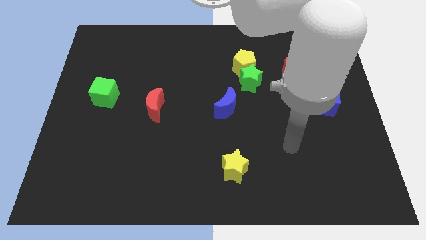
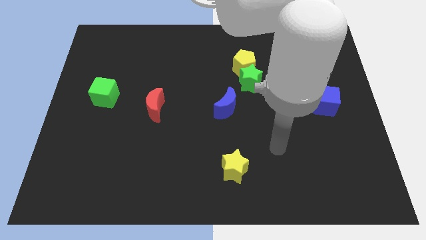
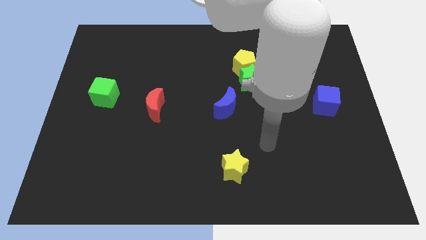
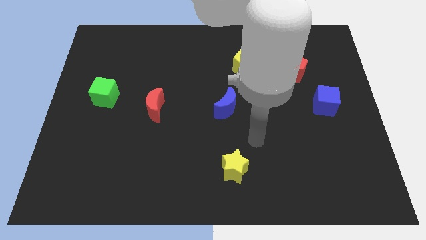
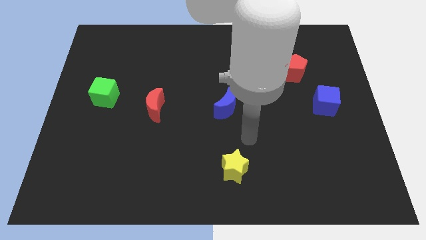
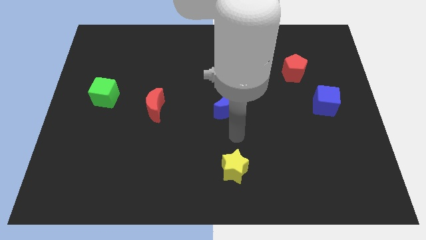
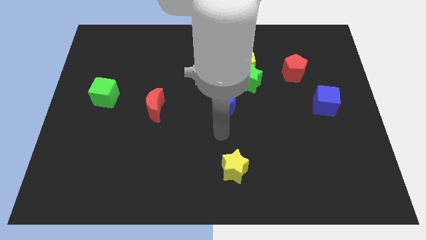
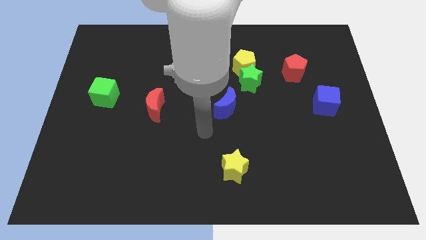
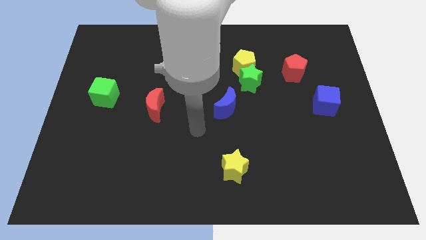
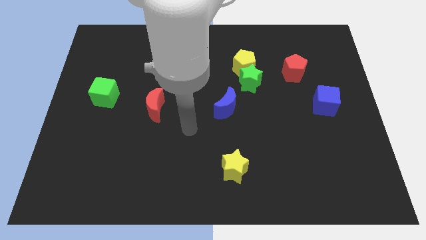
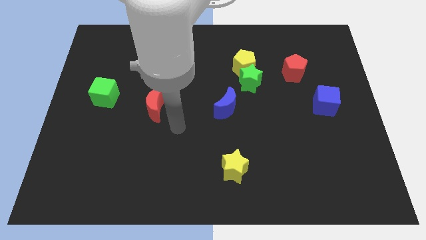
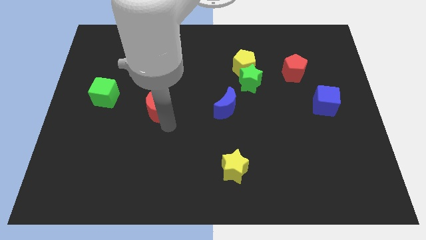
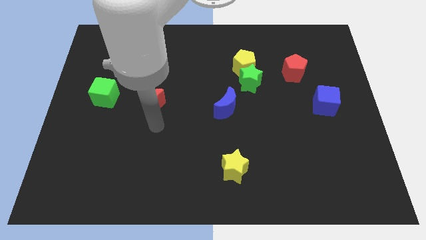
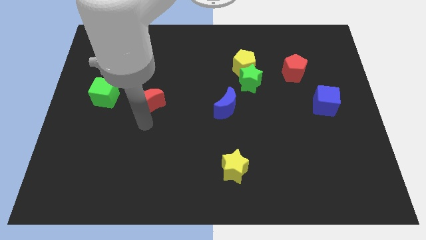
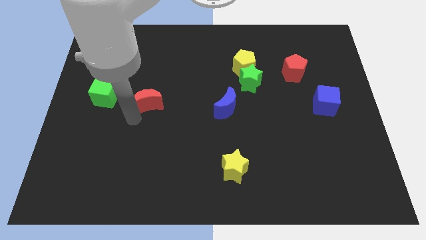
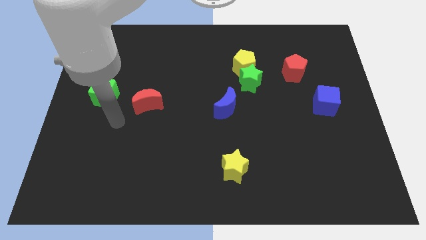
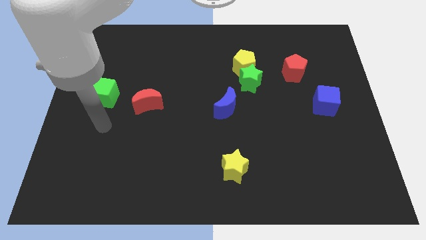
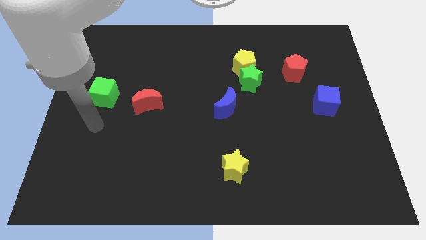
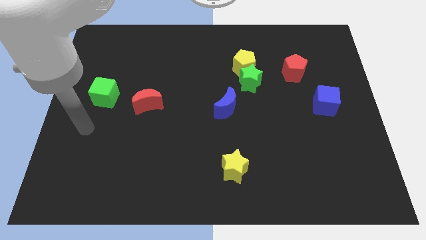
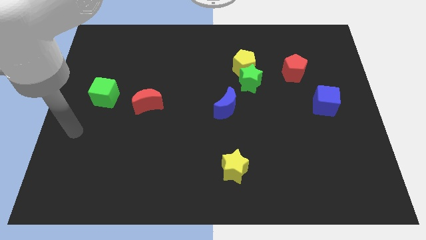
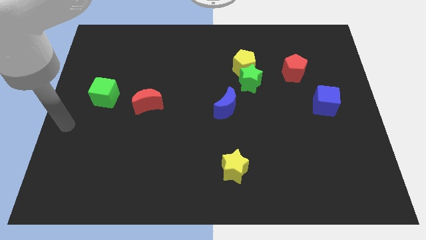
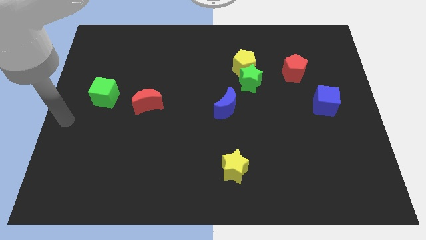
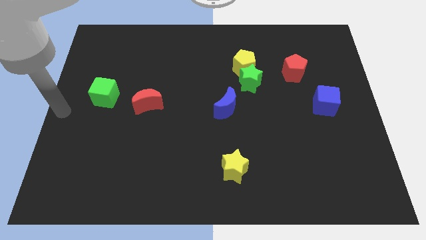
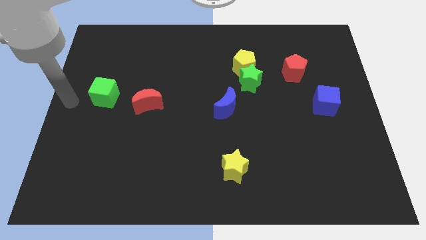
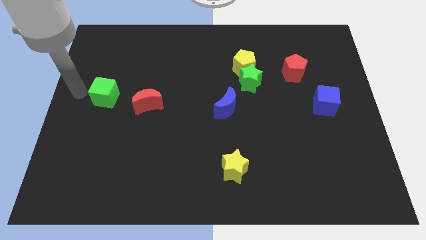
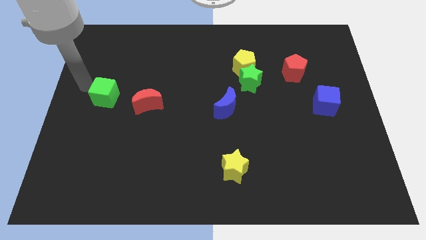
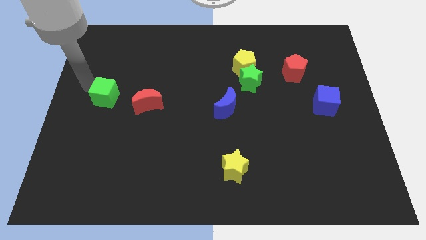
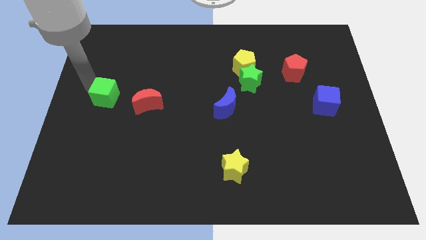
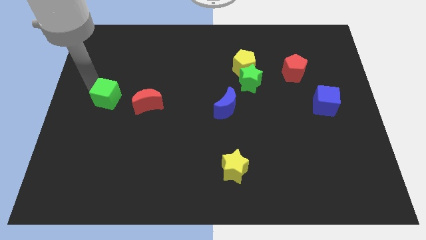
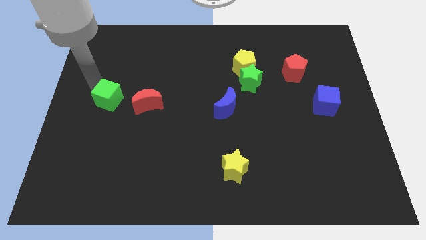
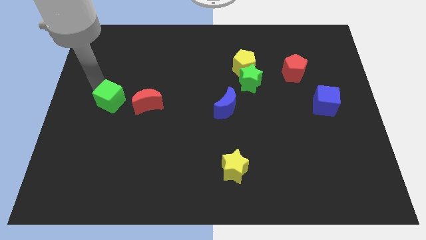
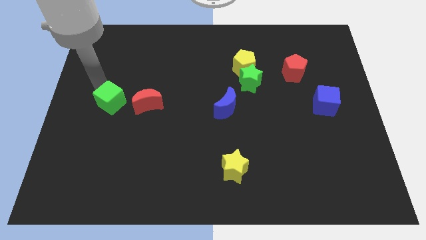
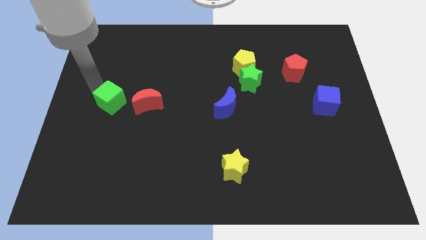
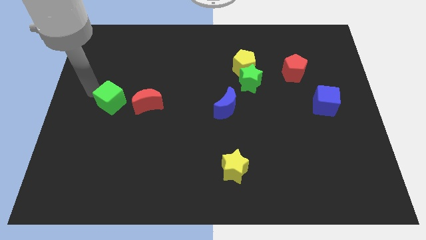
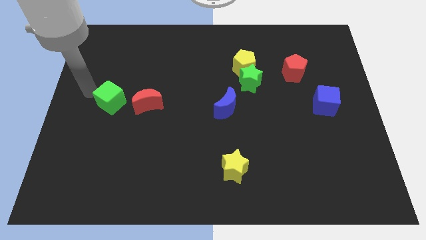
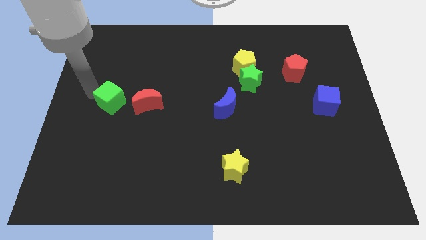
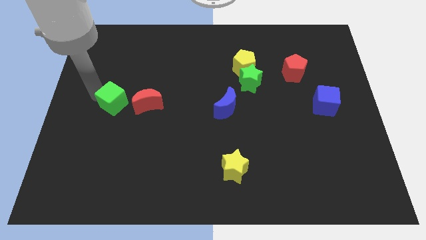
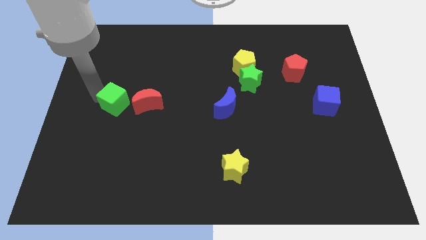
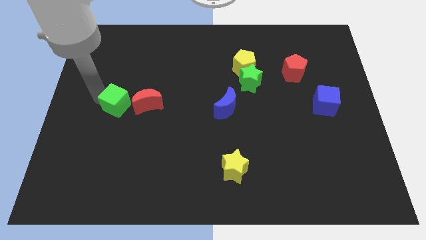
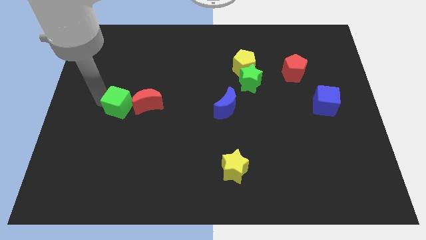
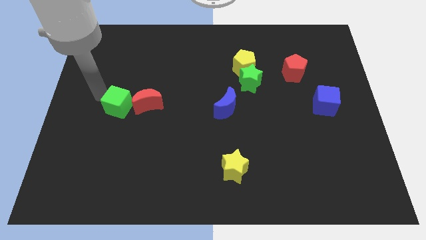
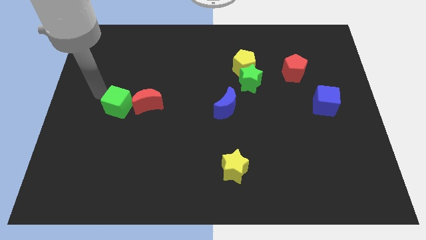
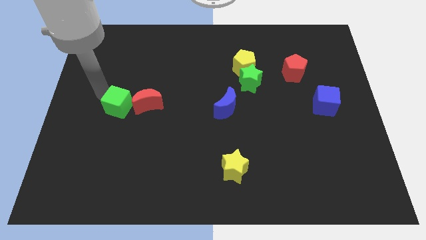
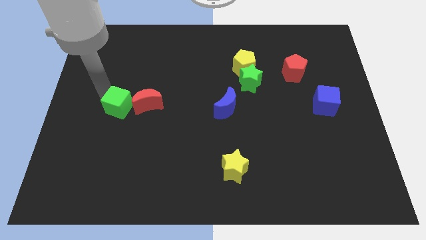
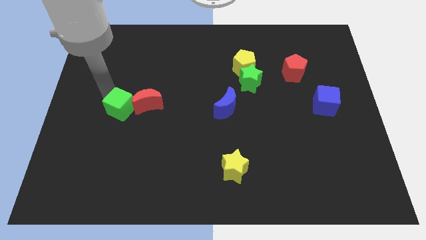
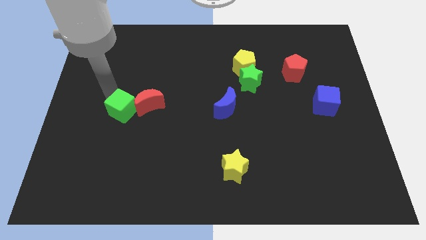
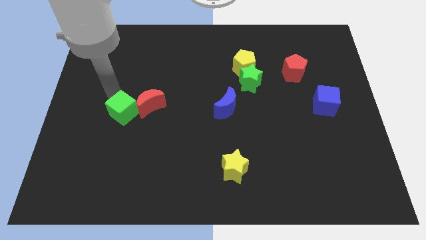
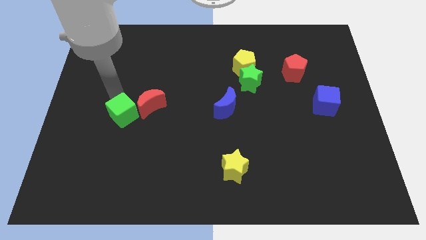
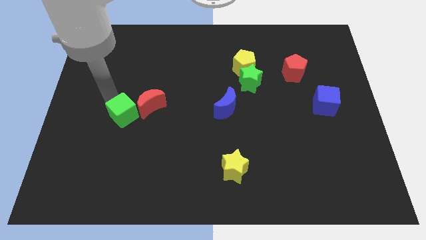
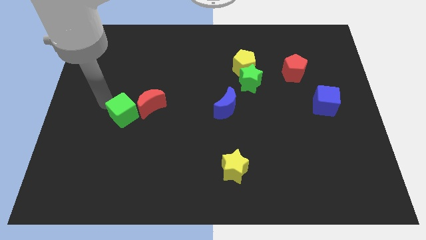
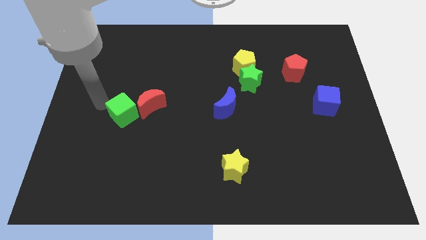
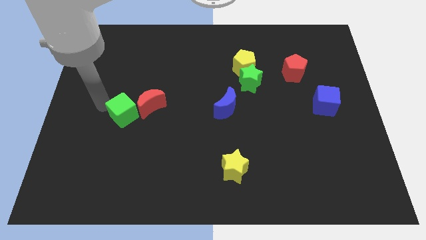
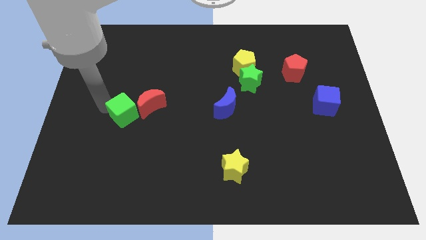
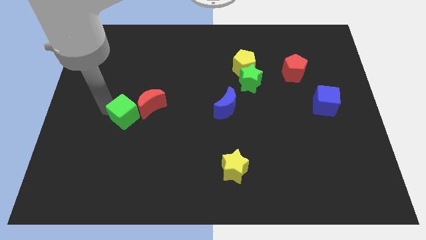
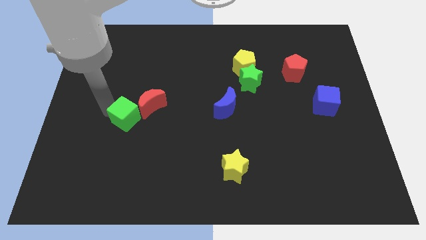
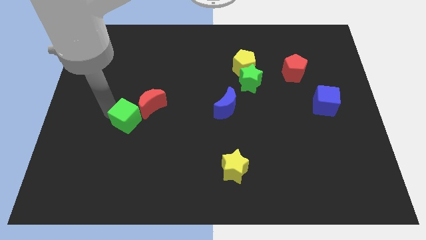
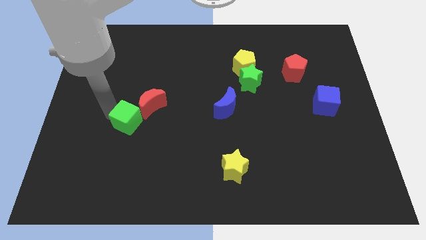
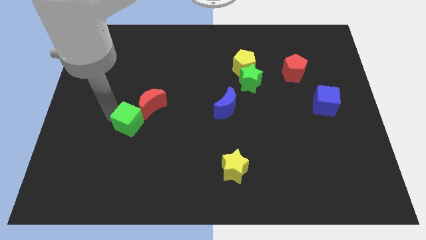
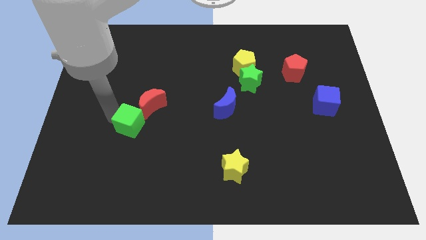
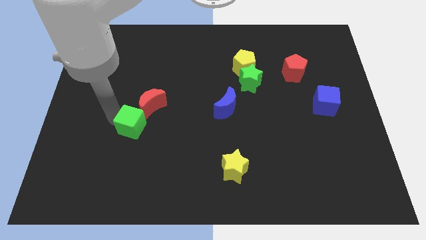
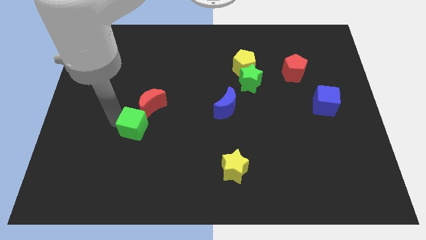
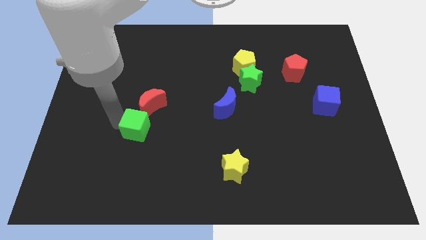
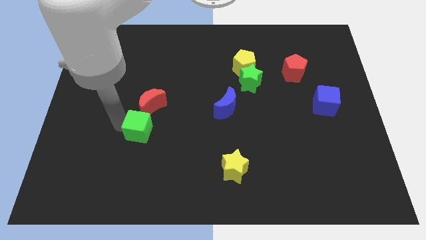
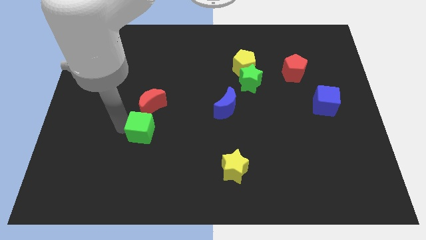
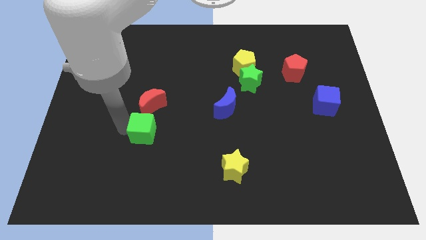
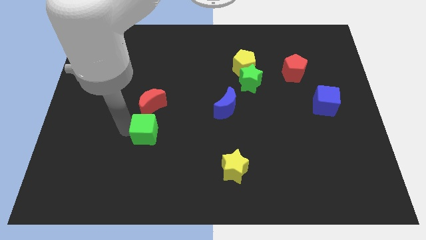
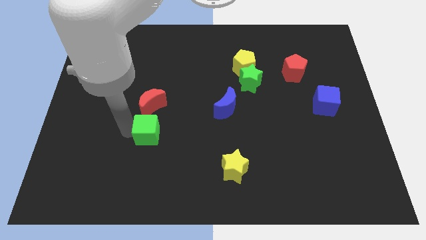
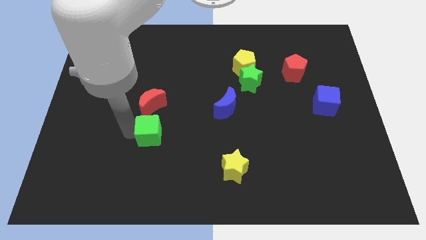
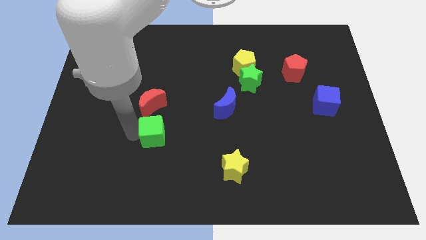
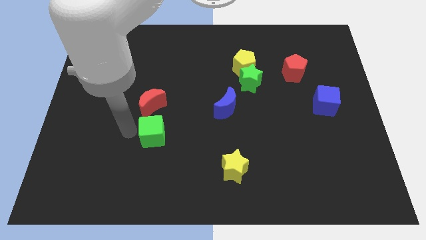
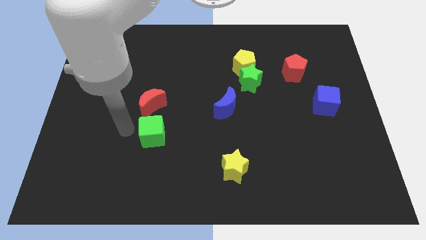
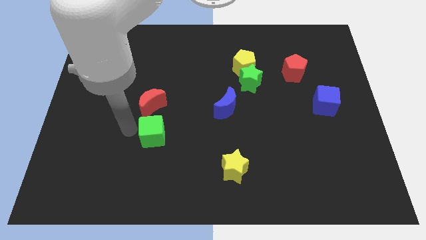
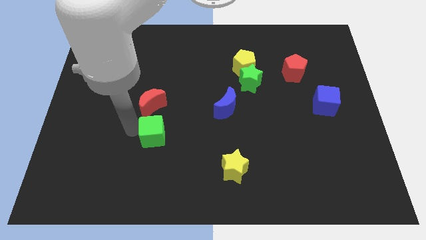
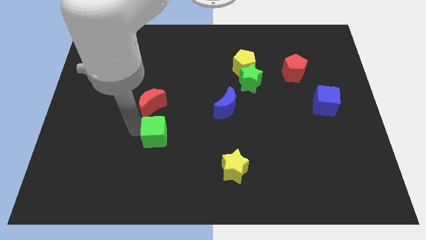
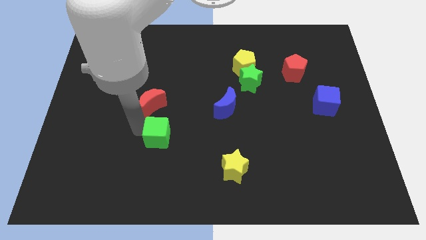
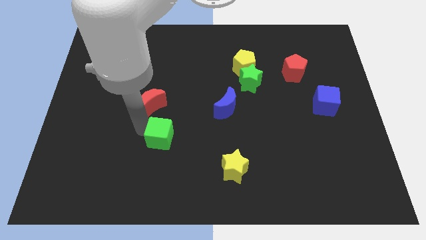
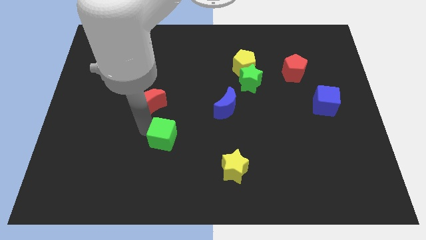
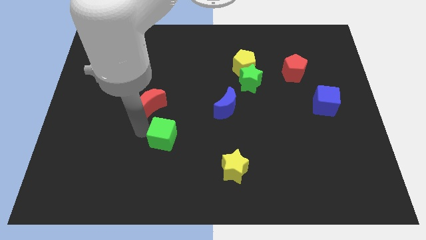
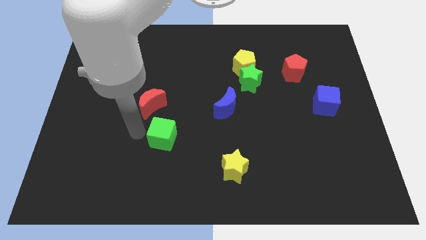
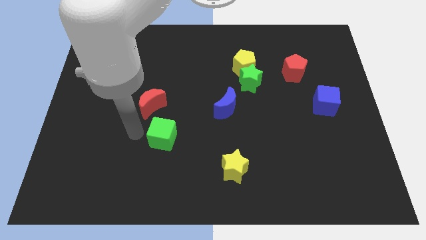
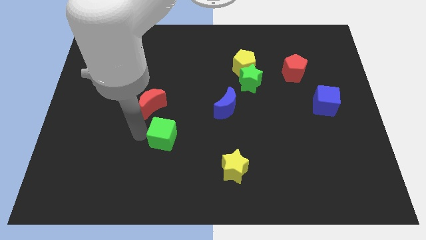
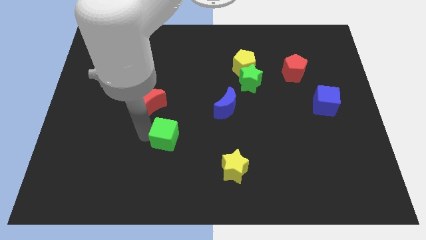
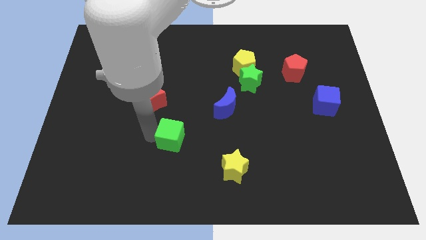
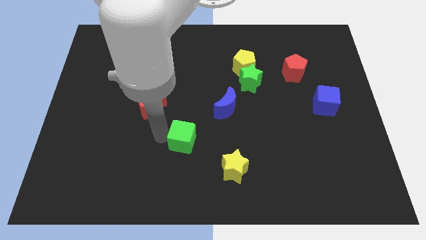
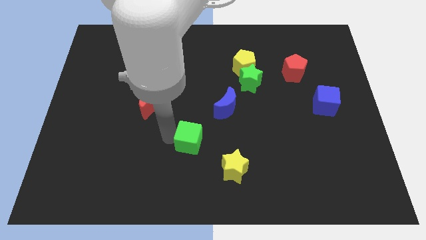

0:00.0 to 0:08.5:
push the green cube diagonally up and to the left of the yellow star
